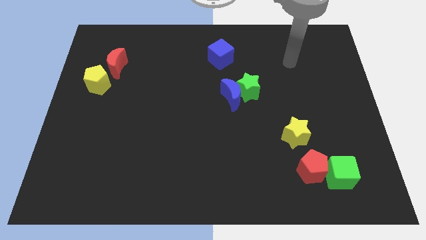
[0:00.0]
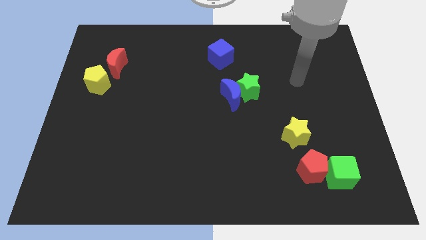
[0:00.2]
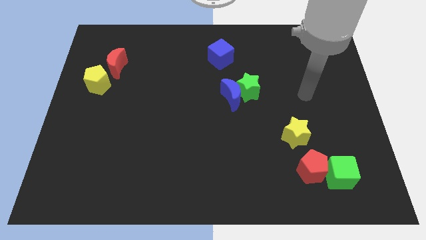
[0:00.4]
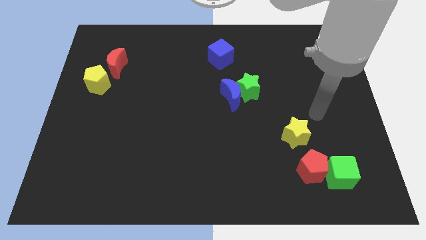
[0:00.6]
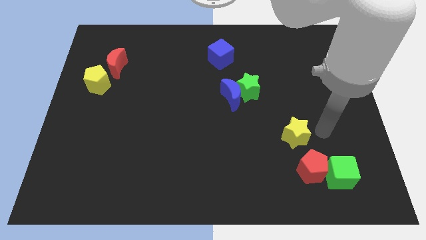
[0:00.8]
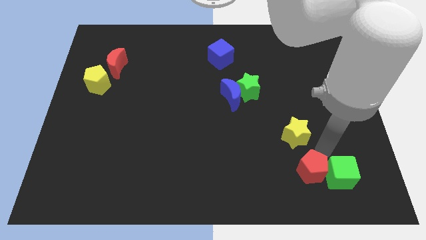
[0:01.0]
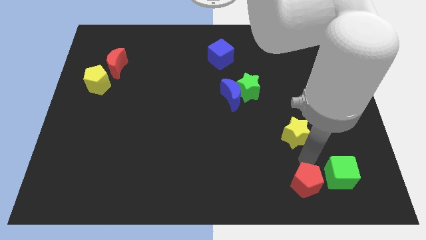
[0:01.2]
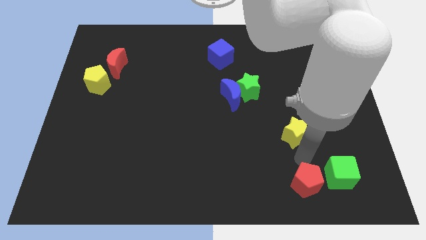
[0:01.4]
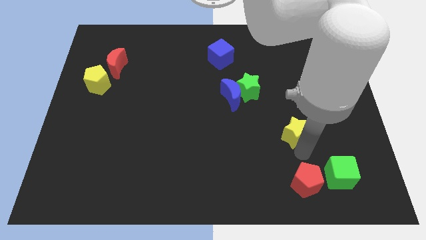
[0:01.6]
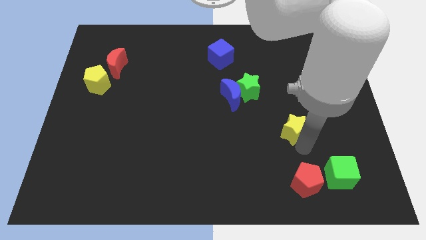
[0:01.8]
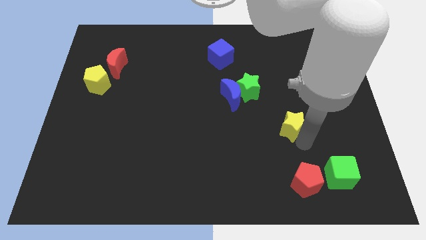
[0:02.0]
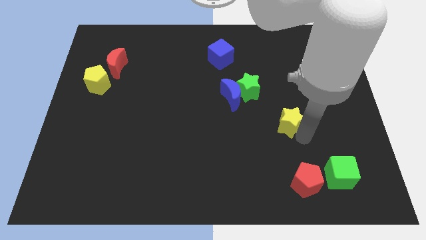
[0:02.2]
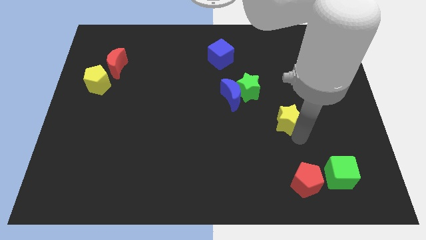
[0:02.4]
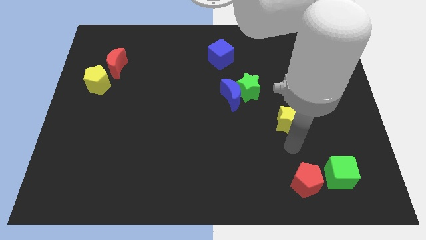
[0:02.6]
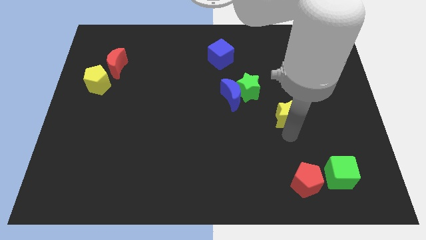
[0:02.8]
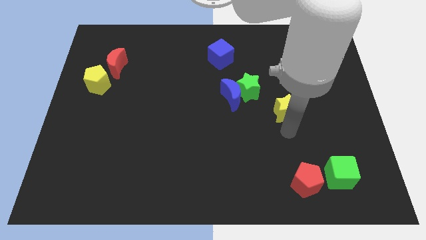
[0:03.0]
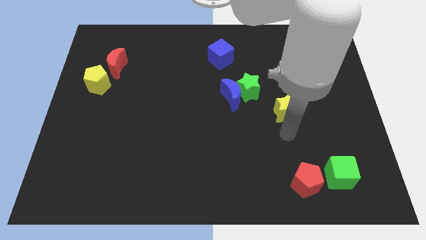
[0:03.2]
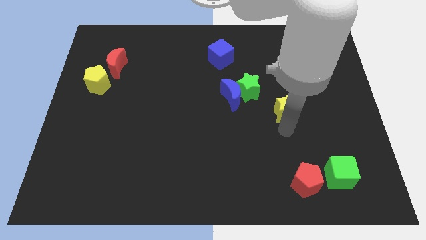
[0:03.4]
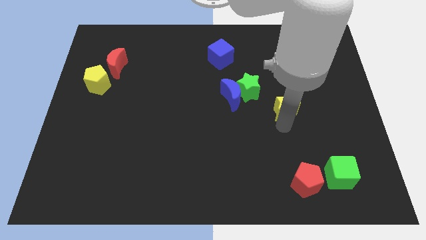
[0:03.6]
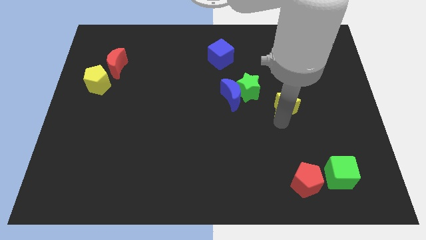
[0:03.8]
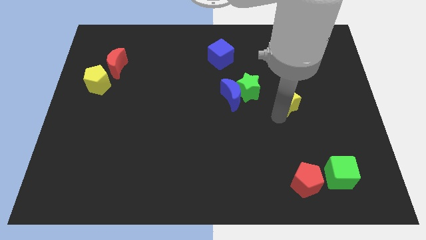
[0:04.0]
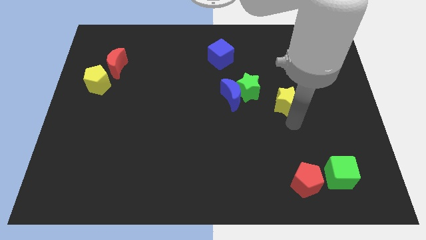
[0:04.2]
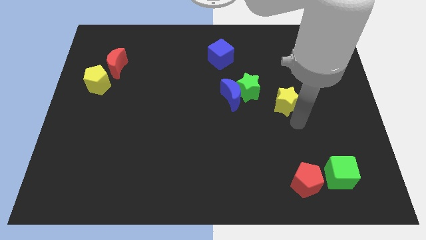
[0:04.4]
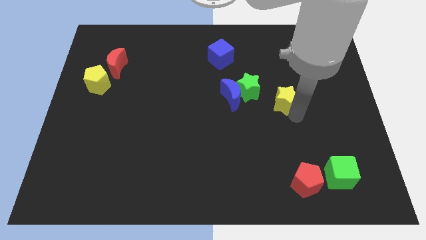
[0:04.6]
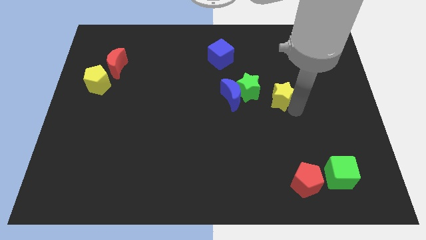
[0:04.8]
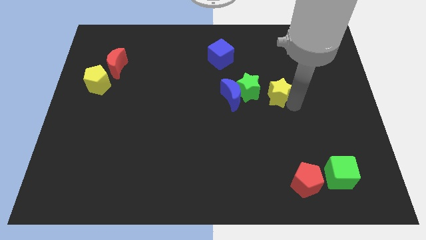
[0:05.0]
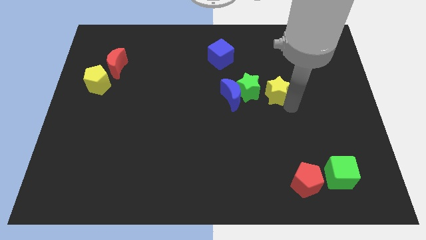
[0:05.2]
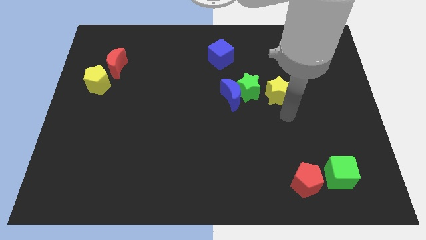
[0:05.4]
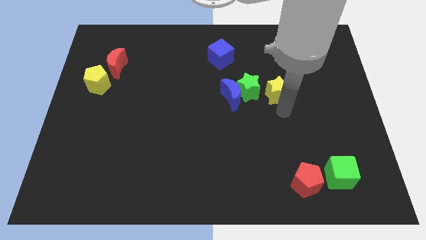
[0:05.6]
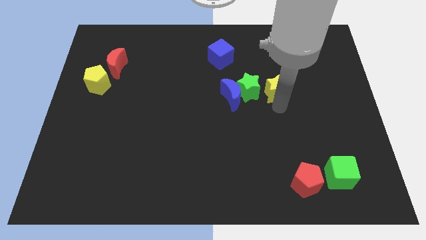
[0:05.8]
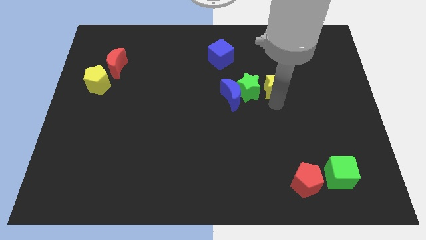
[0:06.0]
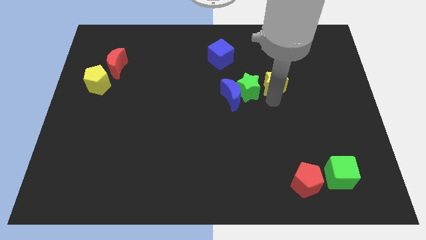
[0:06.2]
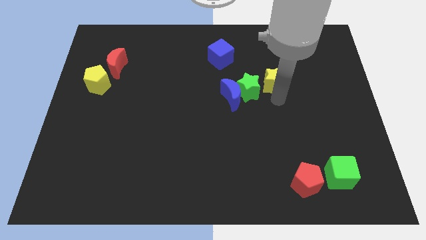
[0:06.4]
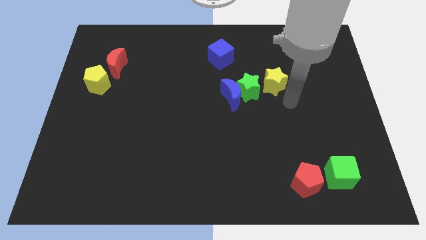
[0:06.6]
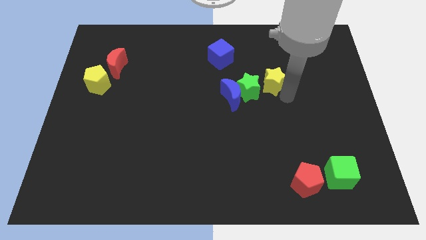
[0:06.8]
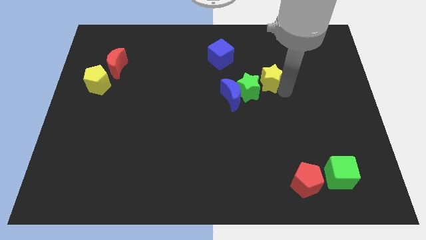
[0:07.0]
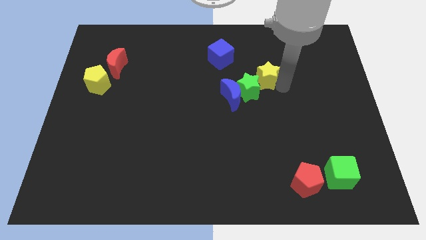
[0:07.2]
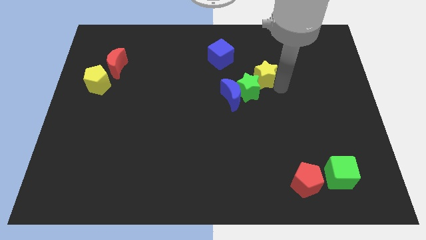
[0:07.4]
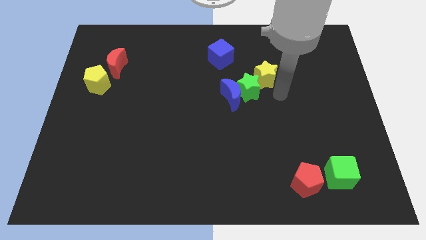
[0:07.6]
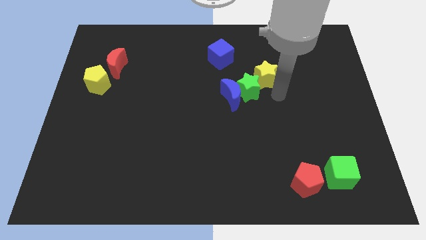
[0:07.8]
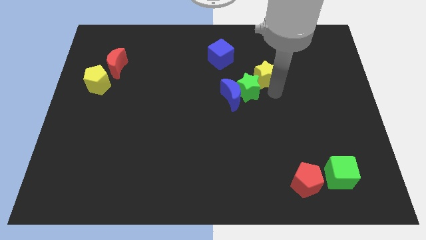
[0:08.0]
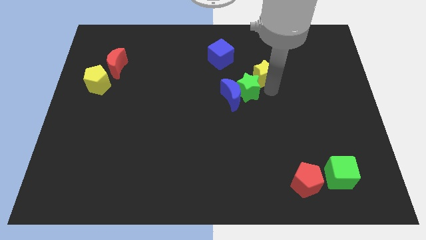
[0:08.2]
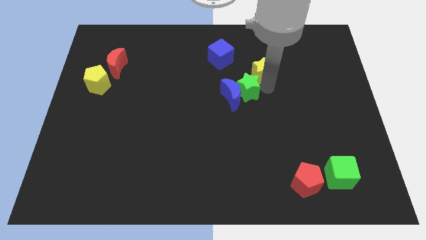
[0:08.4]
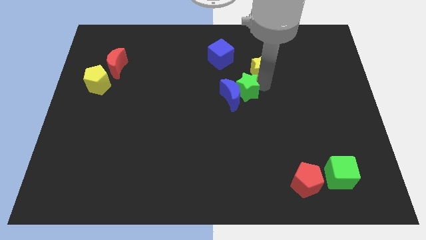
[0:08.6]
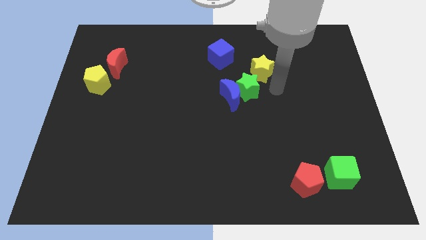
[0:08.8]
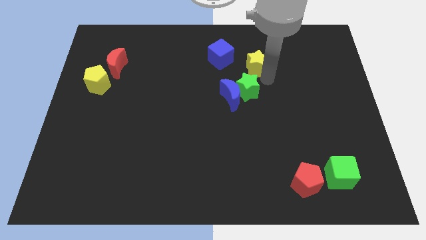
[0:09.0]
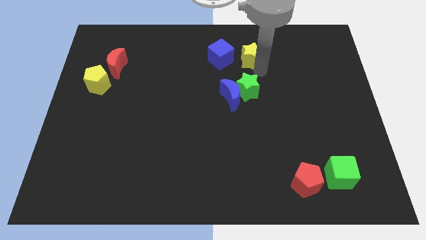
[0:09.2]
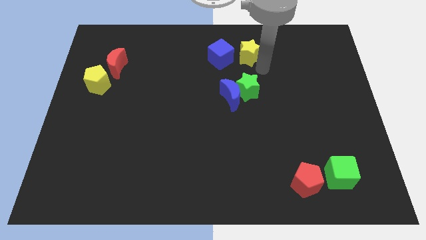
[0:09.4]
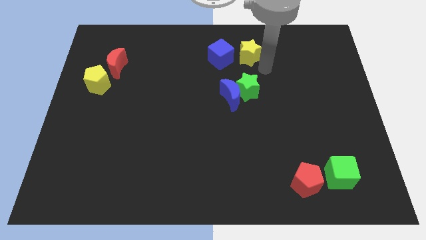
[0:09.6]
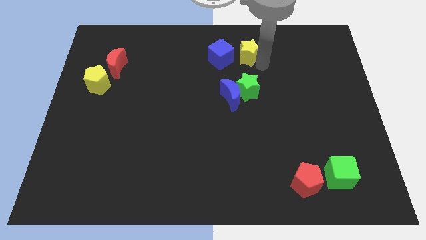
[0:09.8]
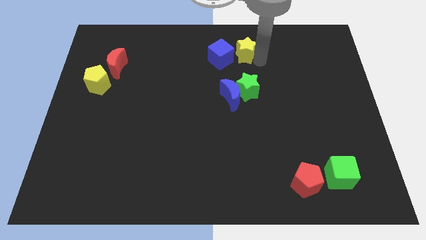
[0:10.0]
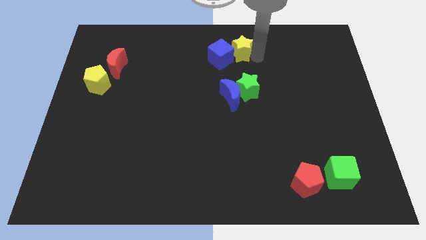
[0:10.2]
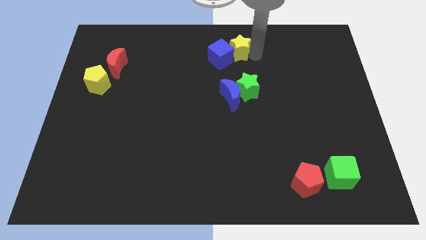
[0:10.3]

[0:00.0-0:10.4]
slide the yellow star to the towards your base

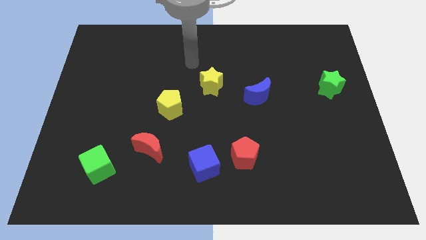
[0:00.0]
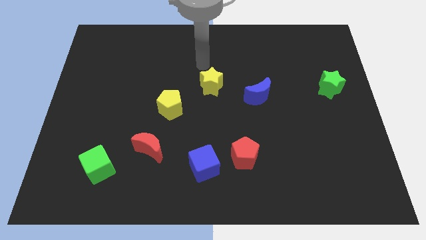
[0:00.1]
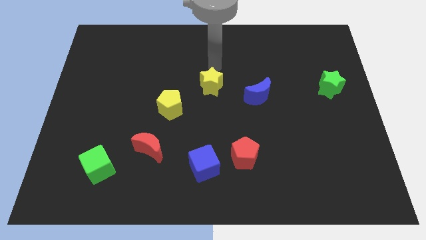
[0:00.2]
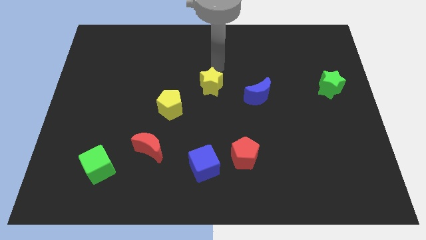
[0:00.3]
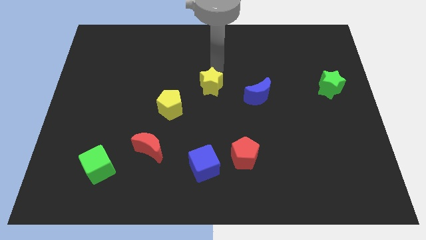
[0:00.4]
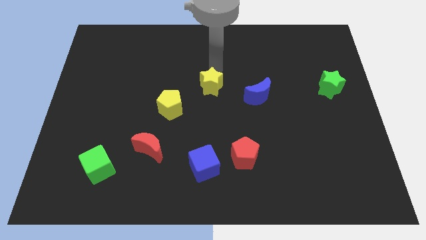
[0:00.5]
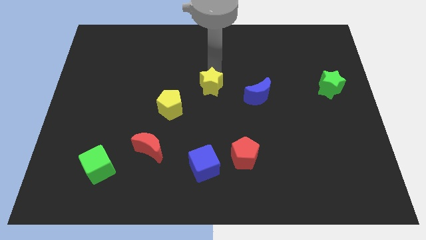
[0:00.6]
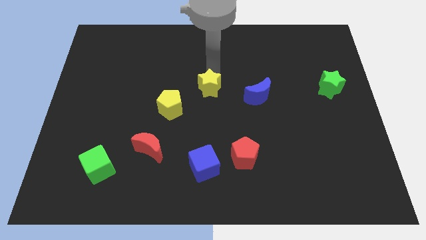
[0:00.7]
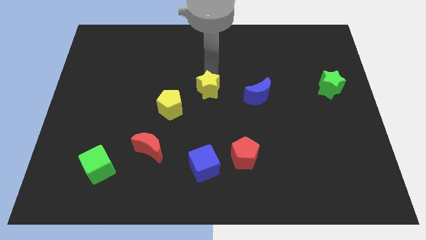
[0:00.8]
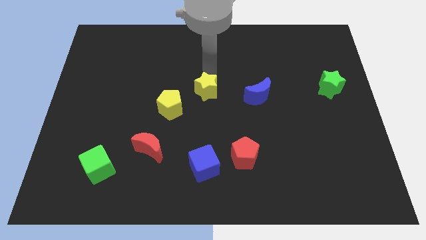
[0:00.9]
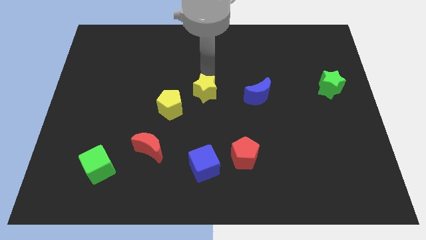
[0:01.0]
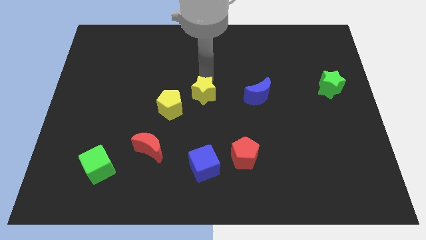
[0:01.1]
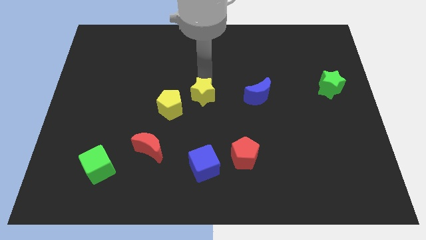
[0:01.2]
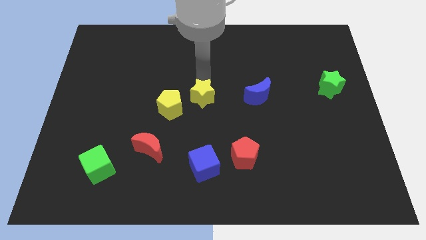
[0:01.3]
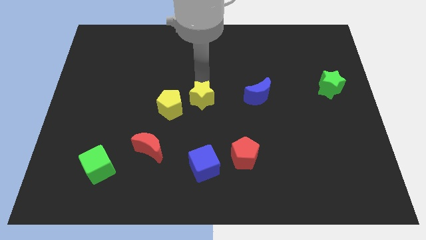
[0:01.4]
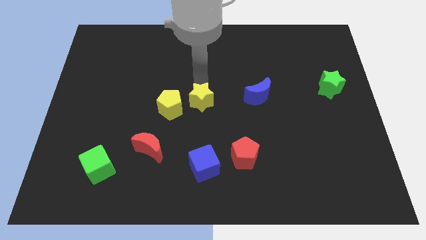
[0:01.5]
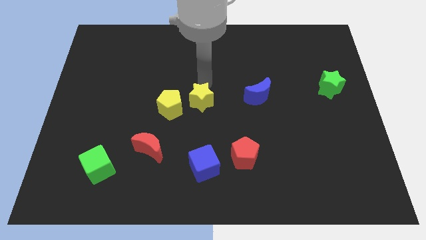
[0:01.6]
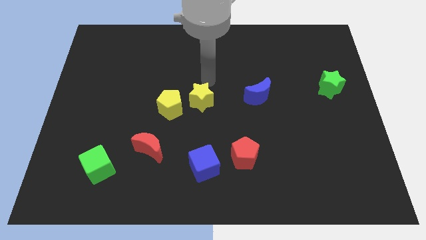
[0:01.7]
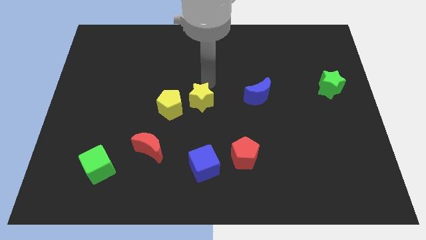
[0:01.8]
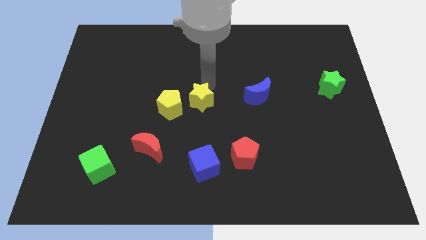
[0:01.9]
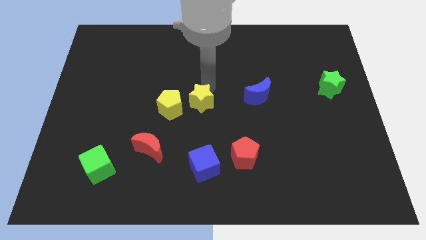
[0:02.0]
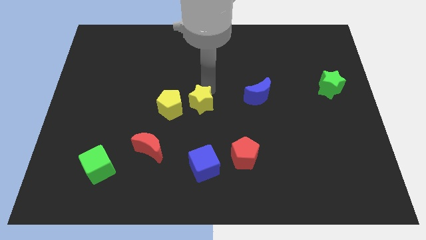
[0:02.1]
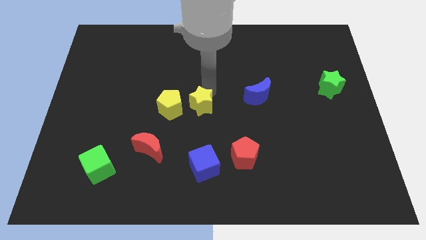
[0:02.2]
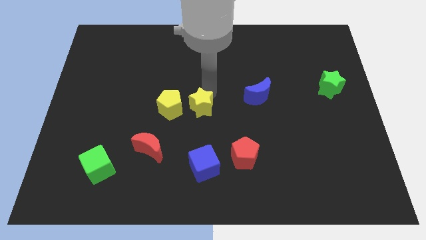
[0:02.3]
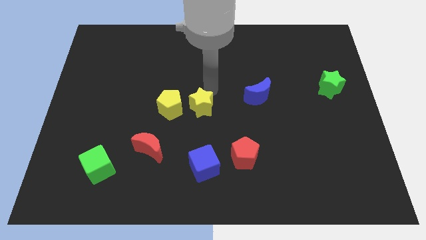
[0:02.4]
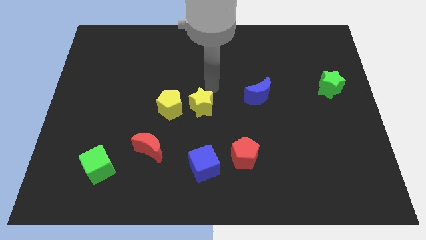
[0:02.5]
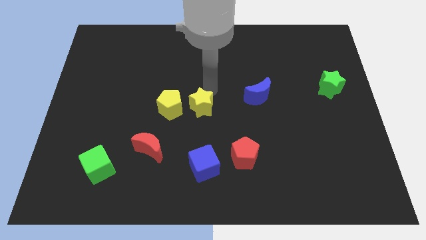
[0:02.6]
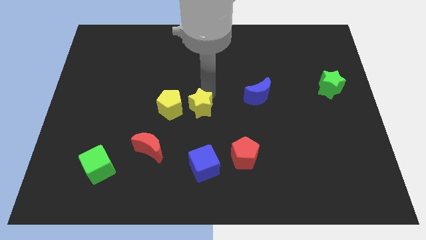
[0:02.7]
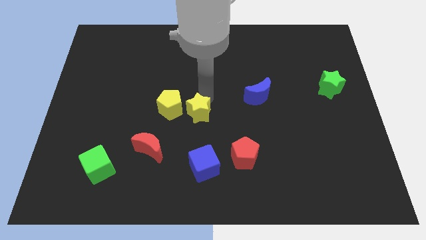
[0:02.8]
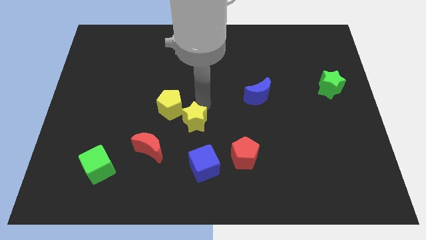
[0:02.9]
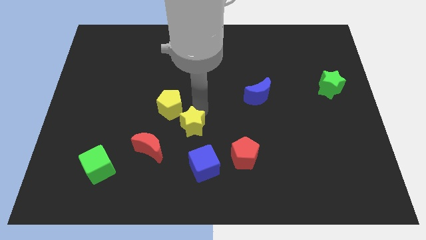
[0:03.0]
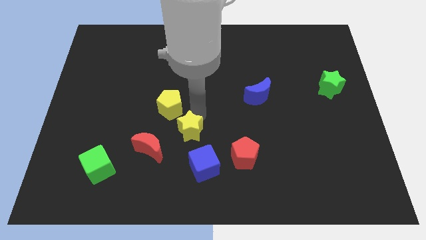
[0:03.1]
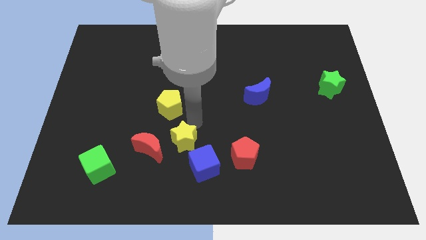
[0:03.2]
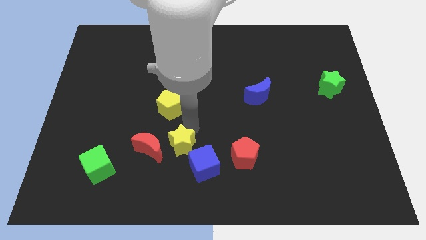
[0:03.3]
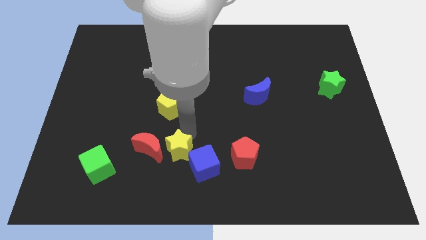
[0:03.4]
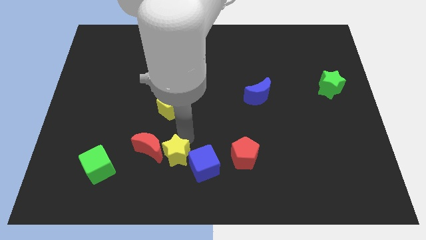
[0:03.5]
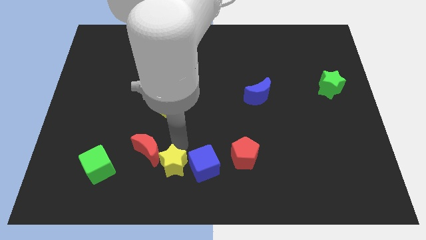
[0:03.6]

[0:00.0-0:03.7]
slide the yellow star to the bottom
